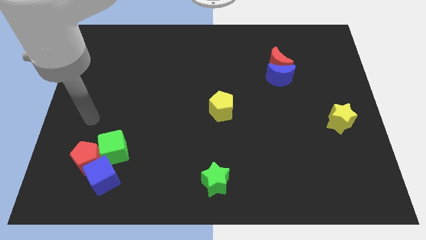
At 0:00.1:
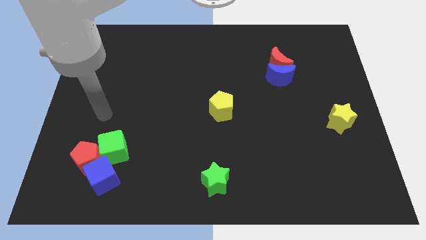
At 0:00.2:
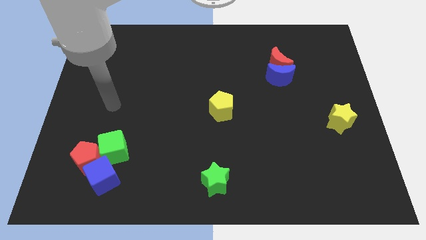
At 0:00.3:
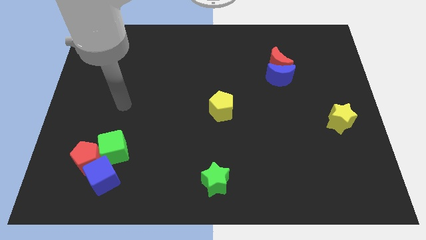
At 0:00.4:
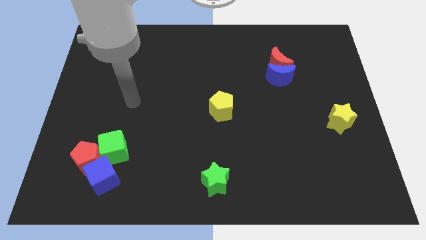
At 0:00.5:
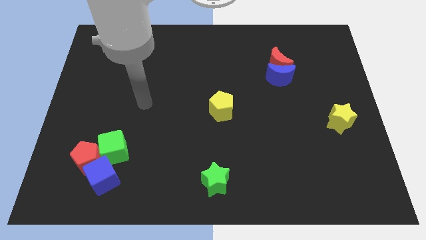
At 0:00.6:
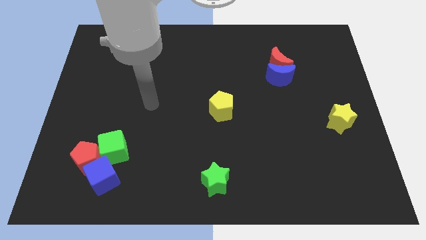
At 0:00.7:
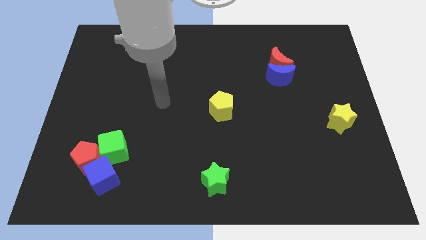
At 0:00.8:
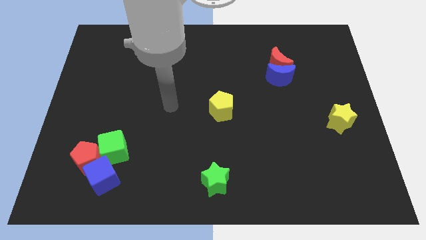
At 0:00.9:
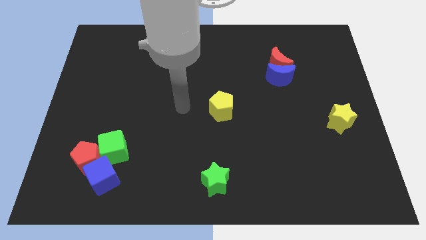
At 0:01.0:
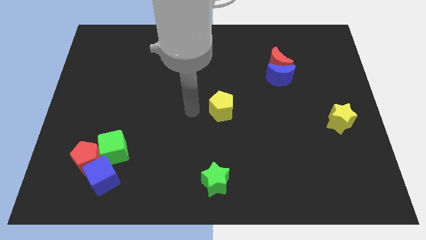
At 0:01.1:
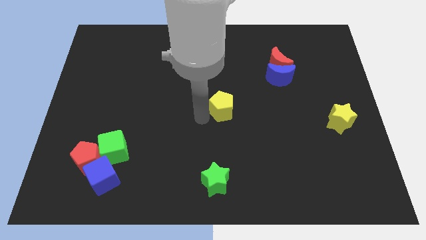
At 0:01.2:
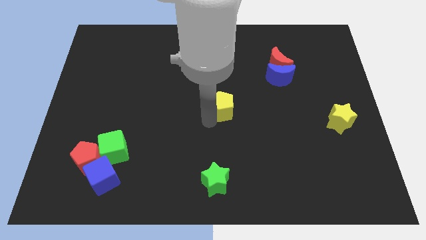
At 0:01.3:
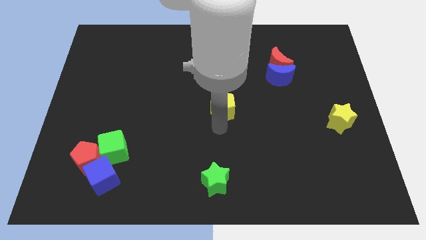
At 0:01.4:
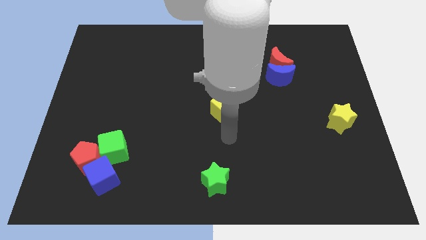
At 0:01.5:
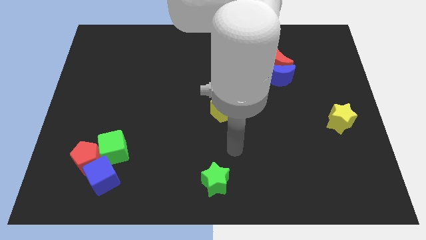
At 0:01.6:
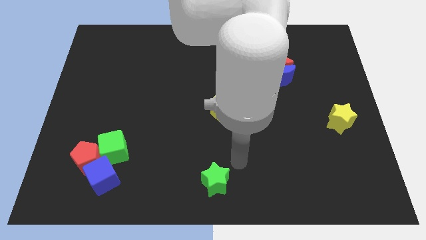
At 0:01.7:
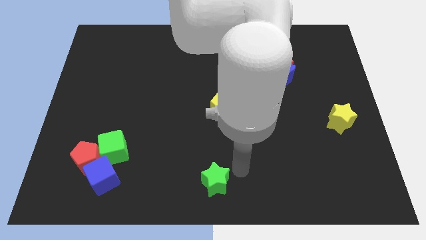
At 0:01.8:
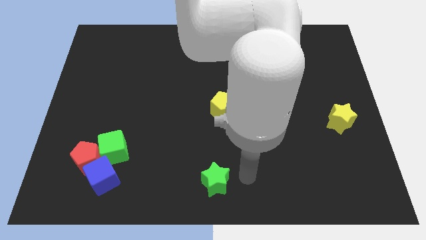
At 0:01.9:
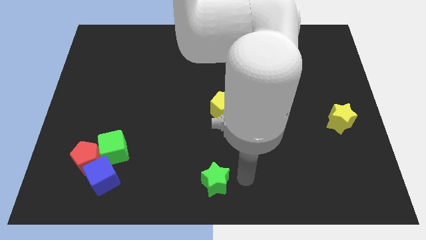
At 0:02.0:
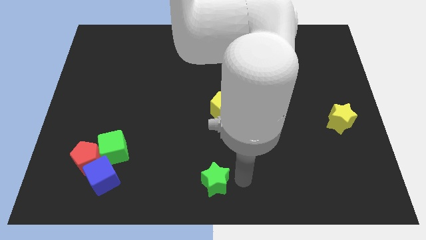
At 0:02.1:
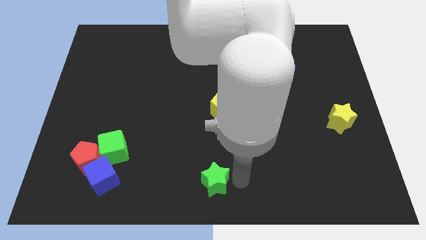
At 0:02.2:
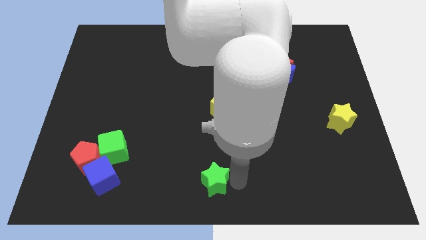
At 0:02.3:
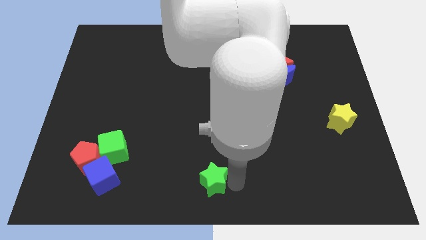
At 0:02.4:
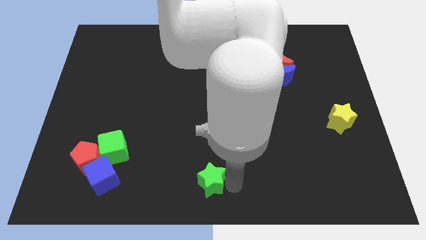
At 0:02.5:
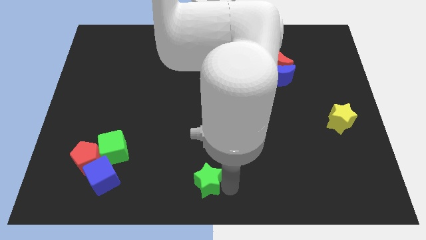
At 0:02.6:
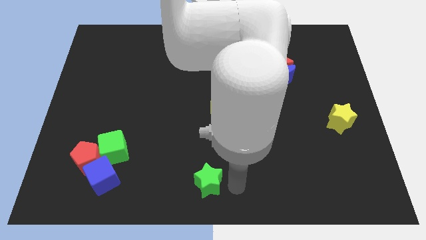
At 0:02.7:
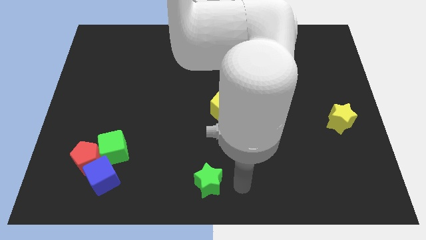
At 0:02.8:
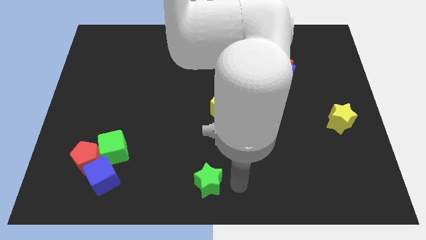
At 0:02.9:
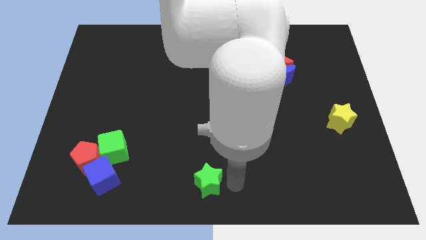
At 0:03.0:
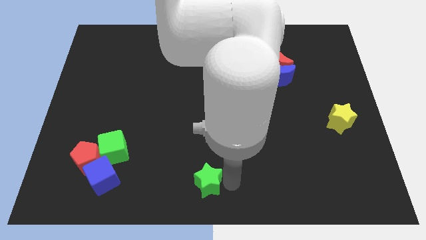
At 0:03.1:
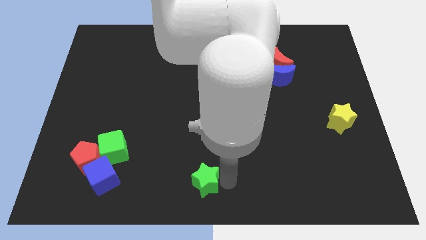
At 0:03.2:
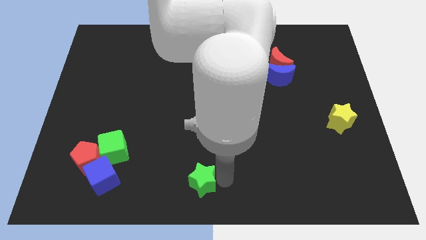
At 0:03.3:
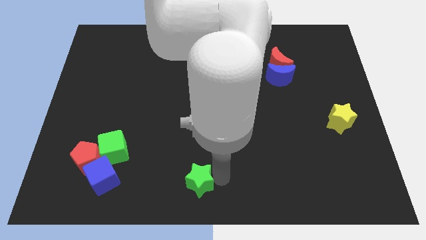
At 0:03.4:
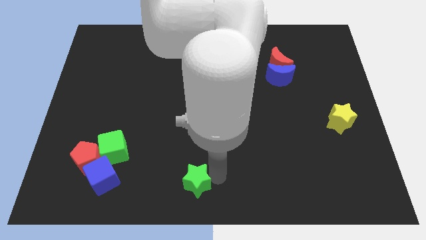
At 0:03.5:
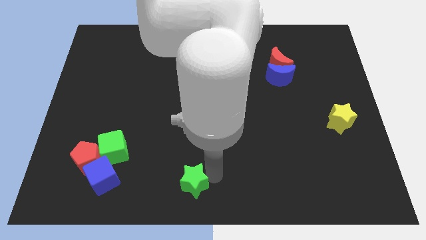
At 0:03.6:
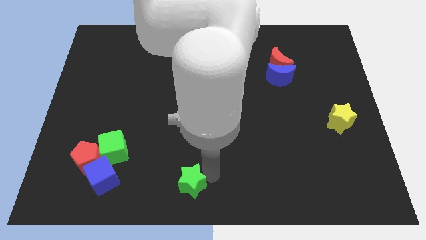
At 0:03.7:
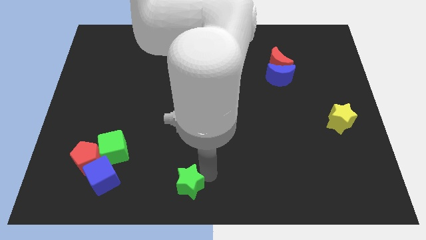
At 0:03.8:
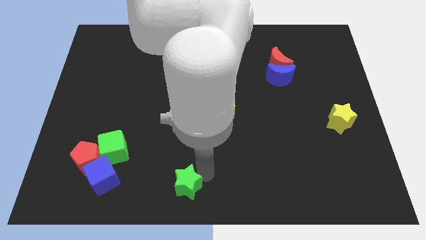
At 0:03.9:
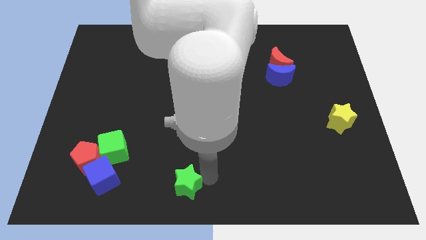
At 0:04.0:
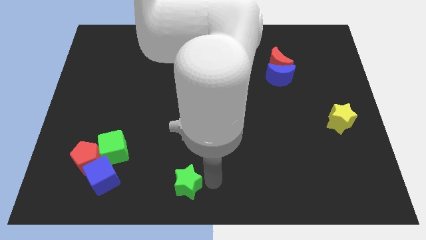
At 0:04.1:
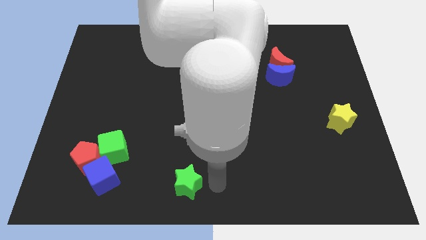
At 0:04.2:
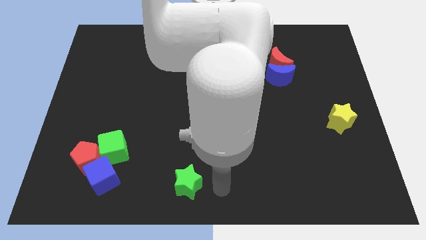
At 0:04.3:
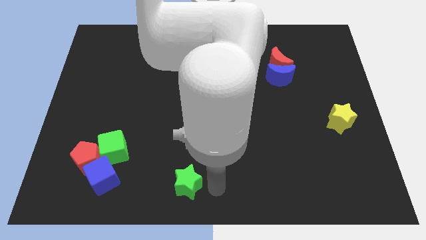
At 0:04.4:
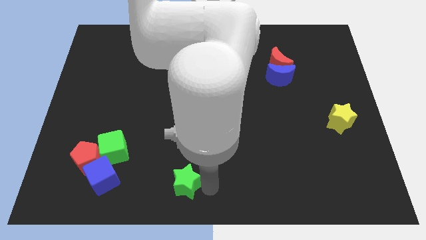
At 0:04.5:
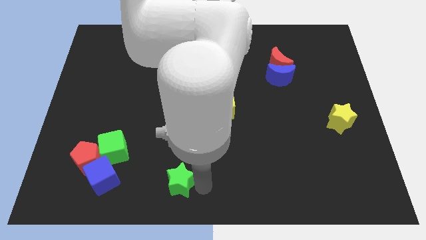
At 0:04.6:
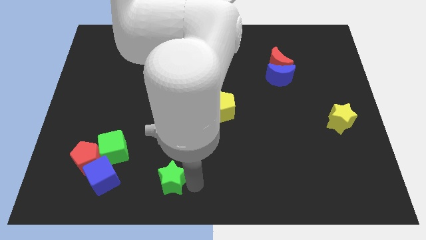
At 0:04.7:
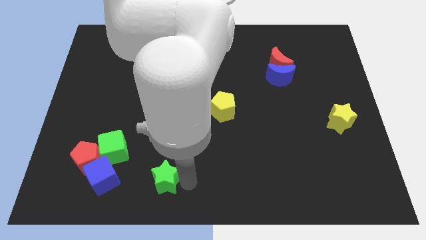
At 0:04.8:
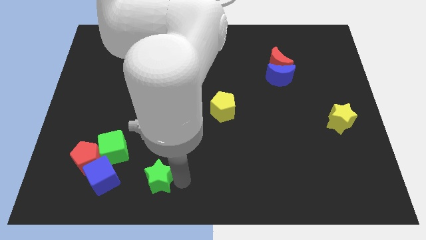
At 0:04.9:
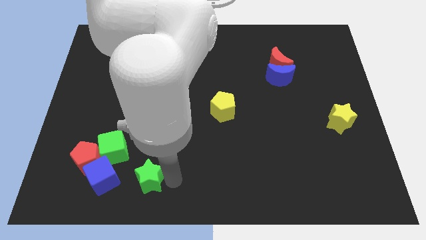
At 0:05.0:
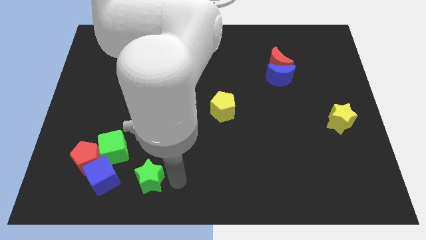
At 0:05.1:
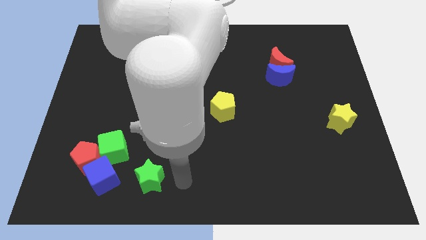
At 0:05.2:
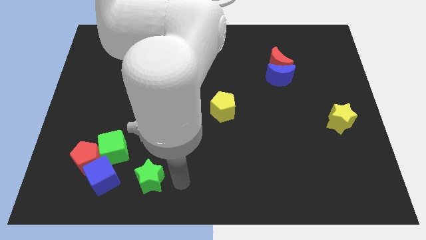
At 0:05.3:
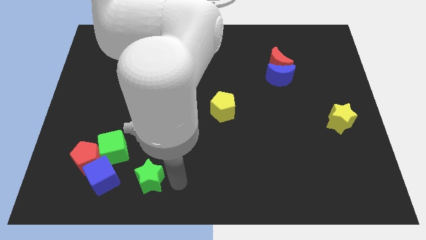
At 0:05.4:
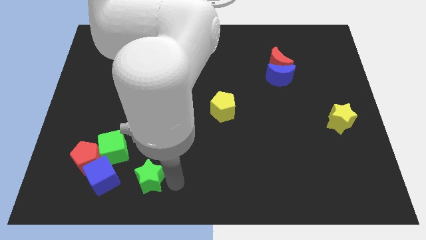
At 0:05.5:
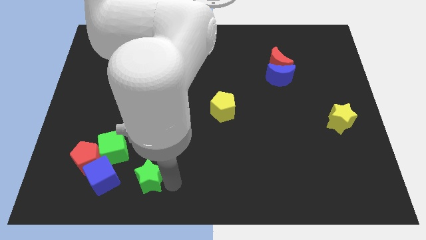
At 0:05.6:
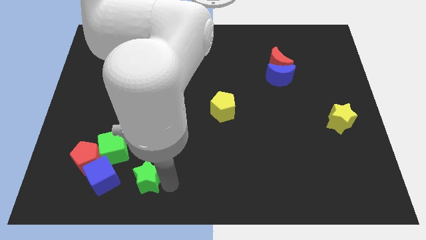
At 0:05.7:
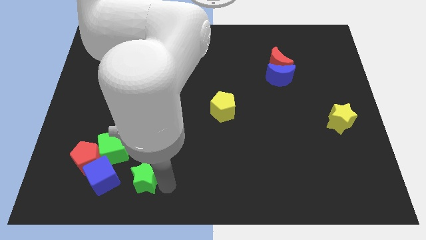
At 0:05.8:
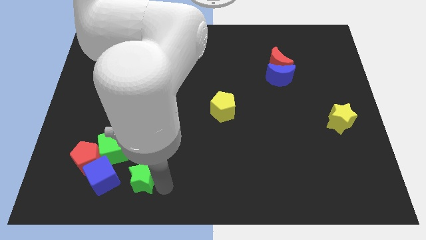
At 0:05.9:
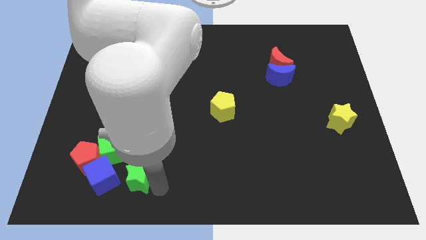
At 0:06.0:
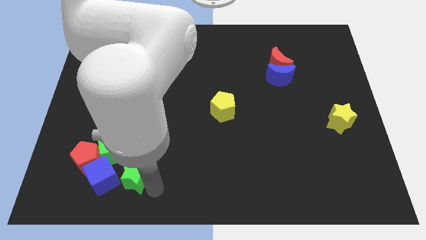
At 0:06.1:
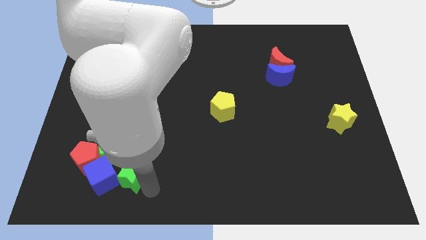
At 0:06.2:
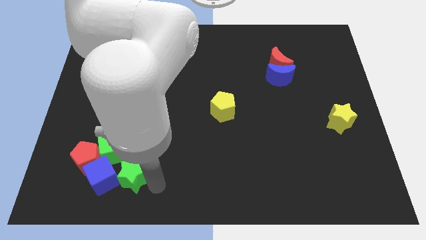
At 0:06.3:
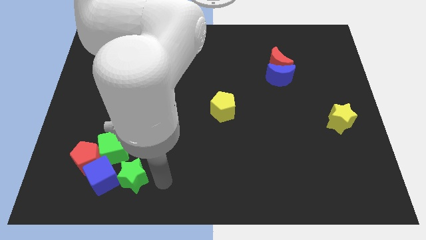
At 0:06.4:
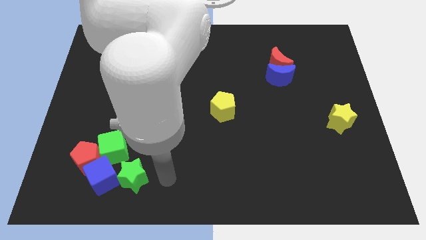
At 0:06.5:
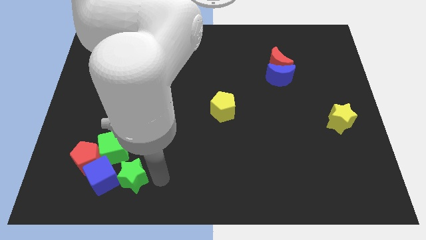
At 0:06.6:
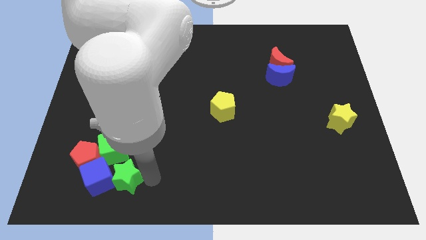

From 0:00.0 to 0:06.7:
put the green star next to the blue cube

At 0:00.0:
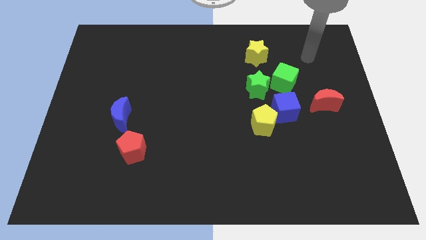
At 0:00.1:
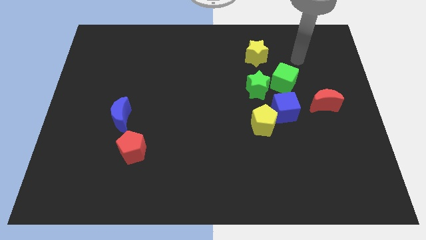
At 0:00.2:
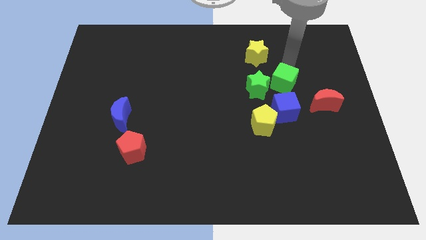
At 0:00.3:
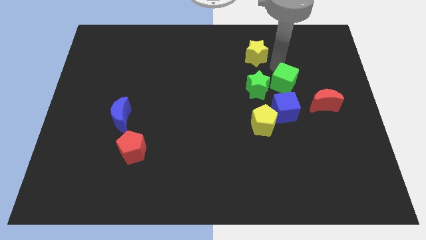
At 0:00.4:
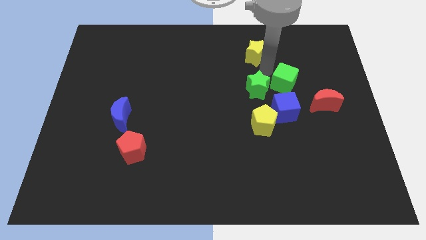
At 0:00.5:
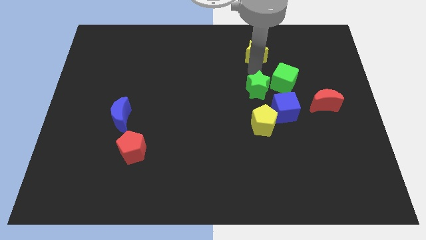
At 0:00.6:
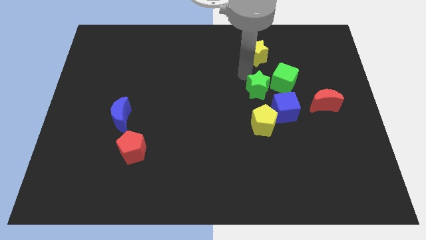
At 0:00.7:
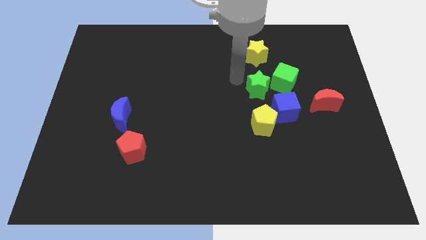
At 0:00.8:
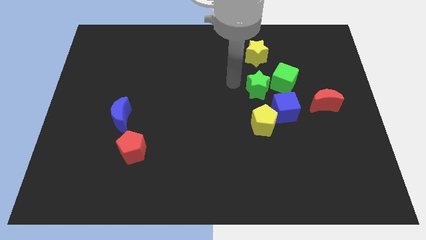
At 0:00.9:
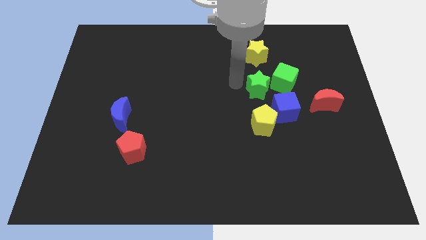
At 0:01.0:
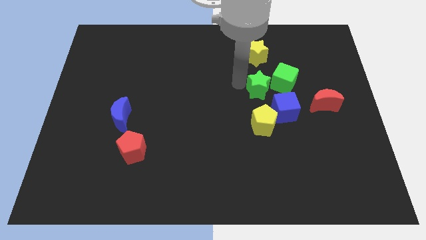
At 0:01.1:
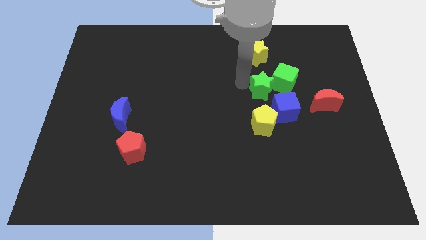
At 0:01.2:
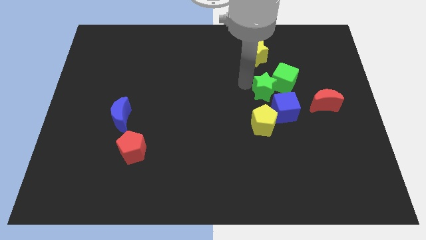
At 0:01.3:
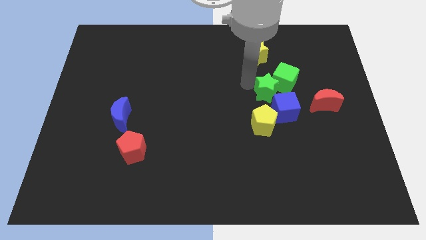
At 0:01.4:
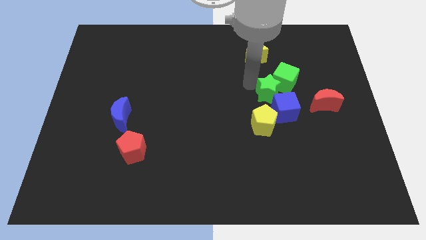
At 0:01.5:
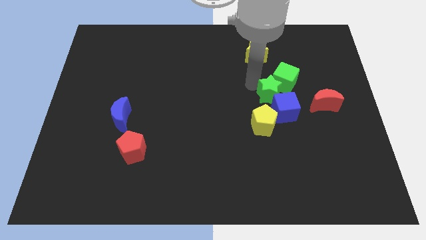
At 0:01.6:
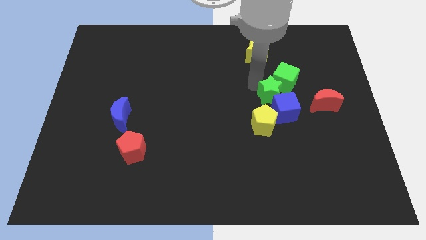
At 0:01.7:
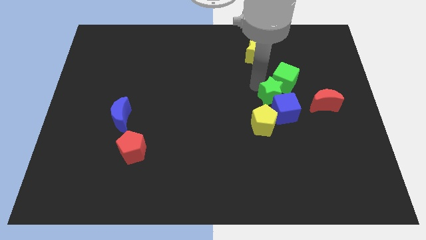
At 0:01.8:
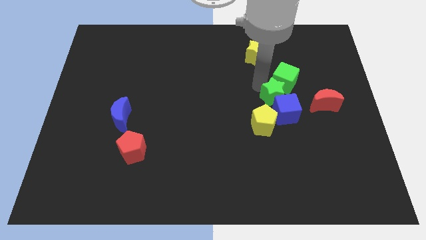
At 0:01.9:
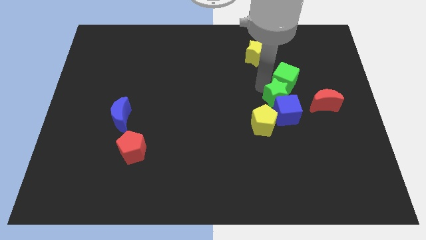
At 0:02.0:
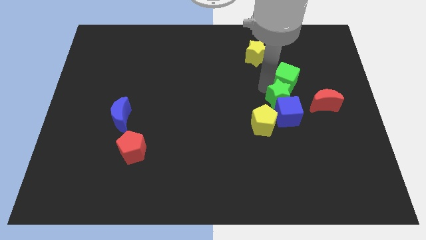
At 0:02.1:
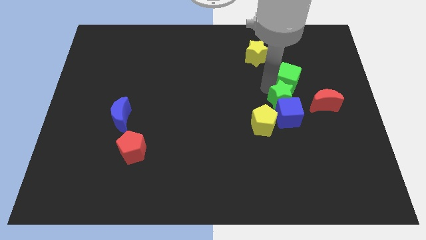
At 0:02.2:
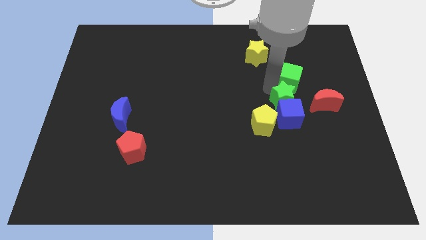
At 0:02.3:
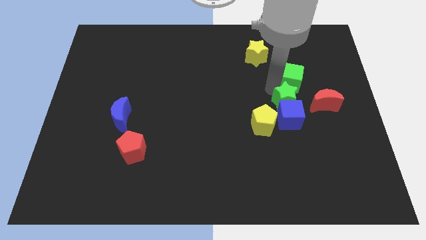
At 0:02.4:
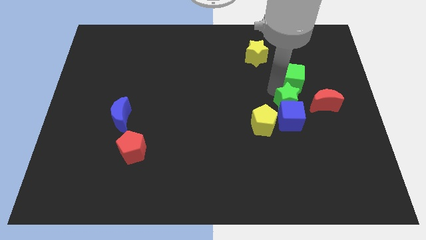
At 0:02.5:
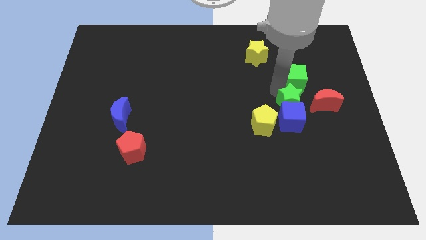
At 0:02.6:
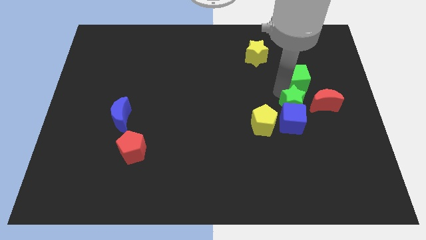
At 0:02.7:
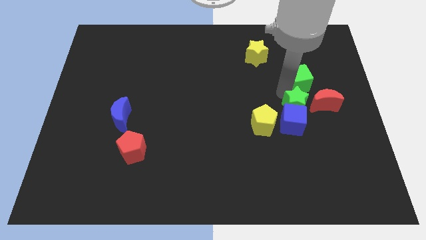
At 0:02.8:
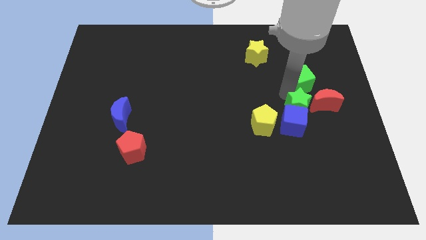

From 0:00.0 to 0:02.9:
push the green star close to the red moon
